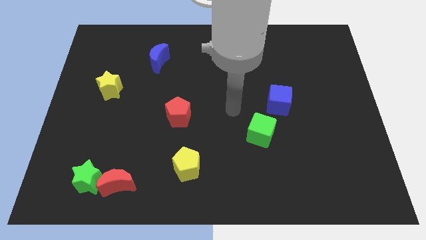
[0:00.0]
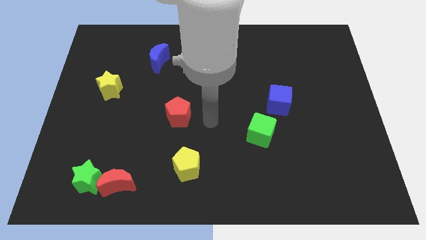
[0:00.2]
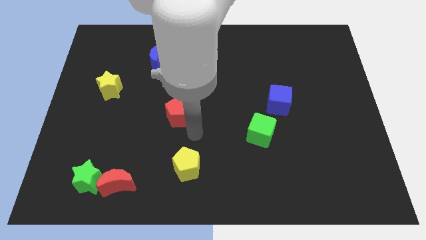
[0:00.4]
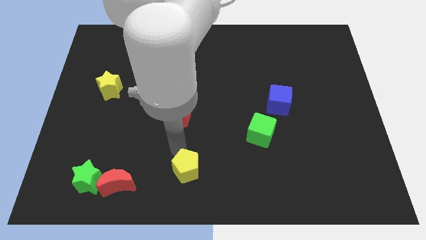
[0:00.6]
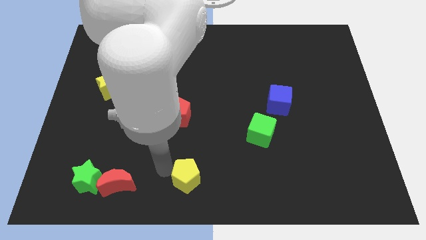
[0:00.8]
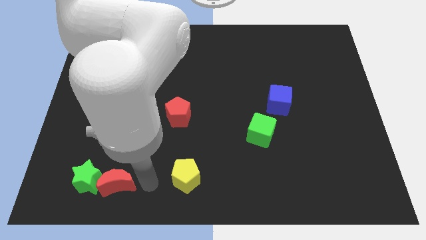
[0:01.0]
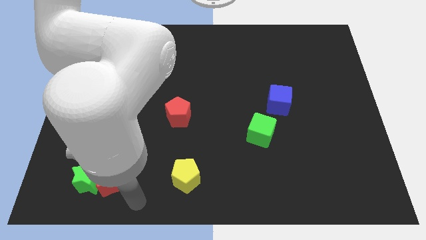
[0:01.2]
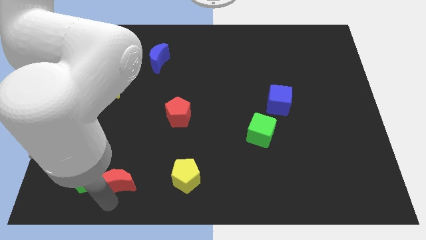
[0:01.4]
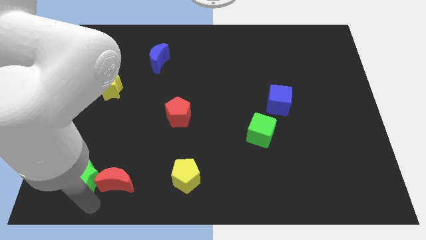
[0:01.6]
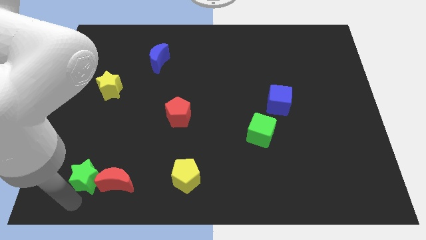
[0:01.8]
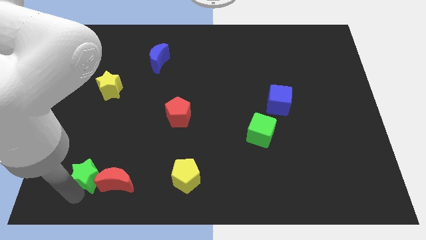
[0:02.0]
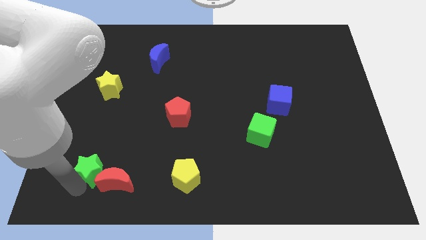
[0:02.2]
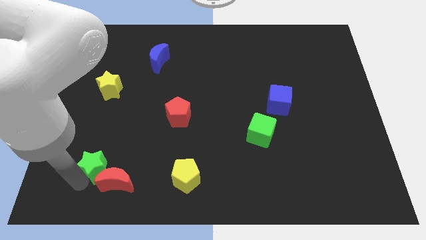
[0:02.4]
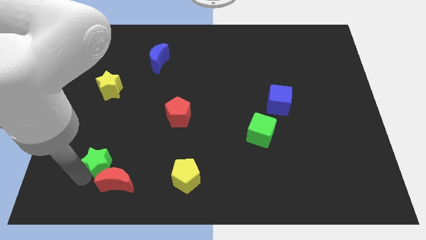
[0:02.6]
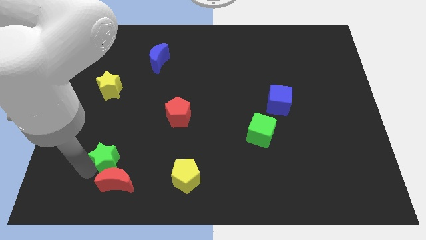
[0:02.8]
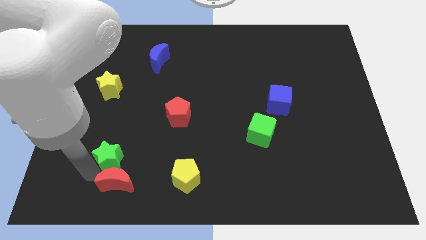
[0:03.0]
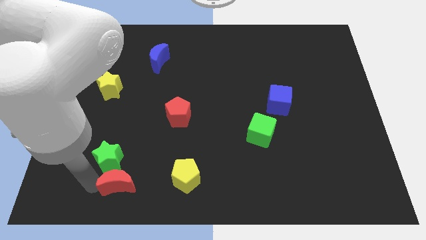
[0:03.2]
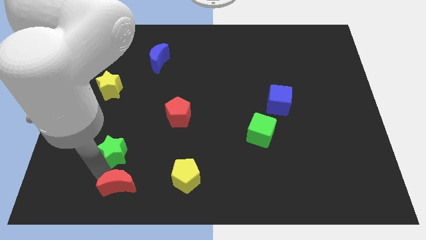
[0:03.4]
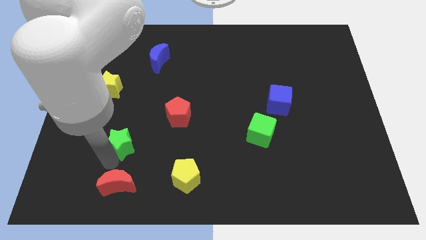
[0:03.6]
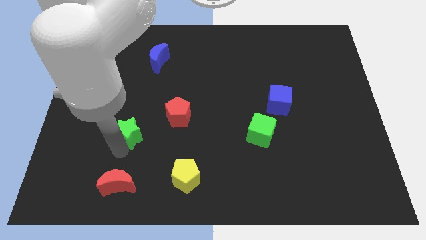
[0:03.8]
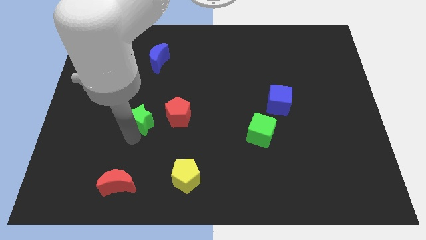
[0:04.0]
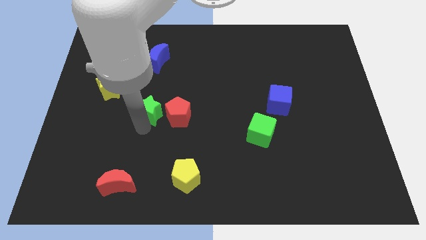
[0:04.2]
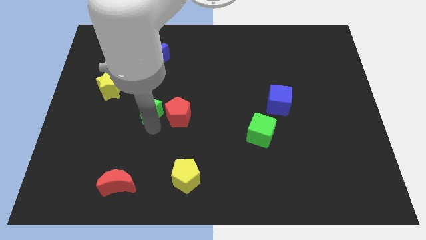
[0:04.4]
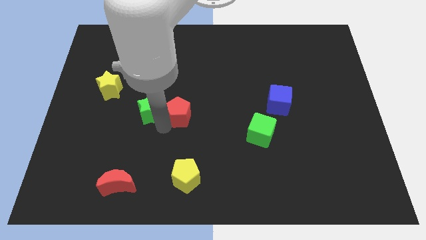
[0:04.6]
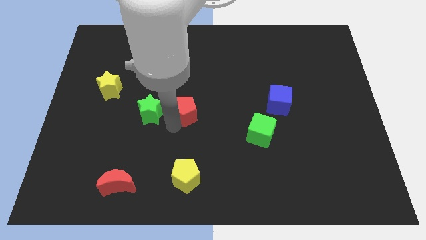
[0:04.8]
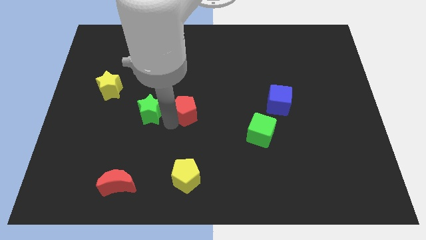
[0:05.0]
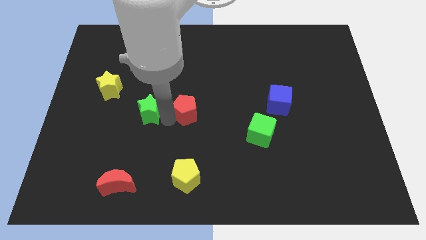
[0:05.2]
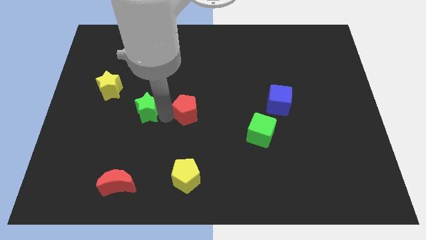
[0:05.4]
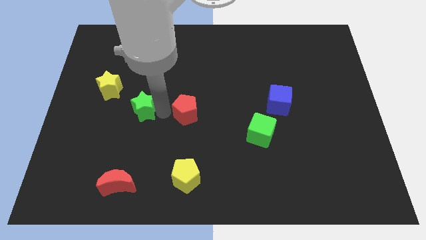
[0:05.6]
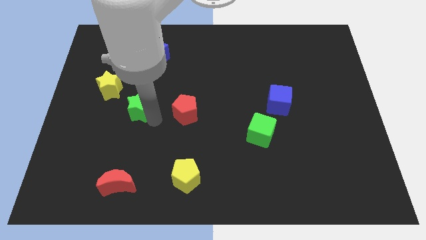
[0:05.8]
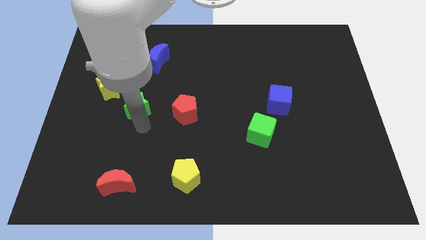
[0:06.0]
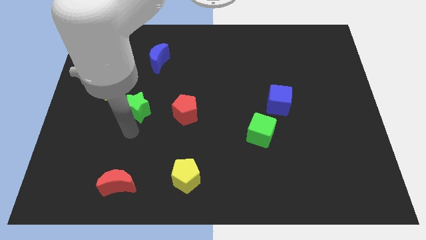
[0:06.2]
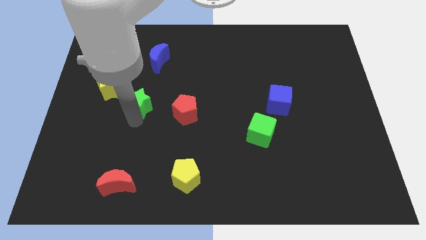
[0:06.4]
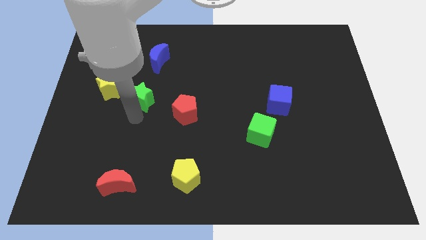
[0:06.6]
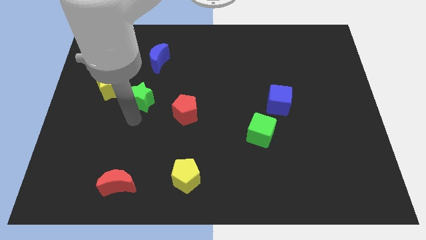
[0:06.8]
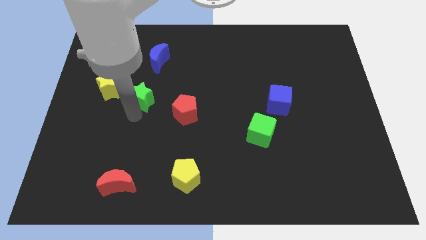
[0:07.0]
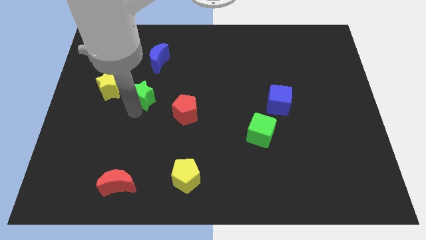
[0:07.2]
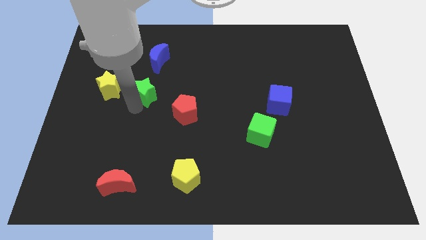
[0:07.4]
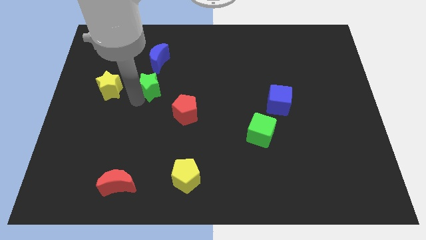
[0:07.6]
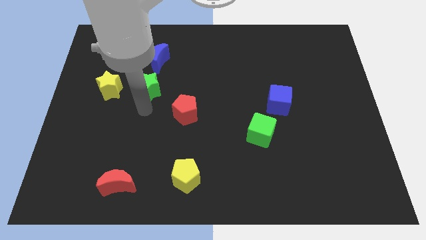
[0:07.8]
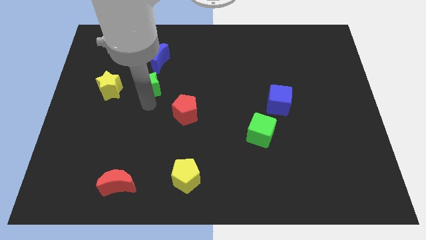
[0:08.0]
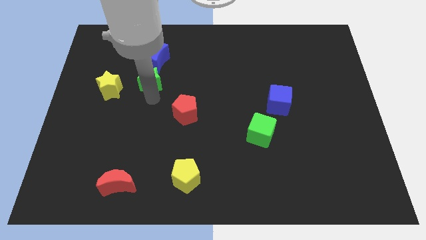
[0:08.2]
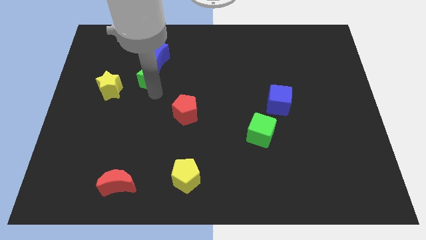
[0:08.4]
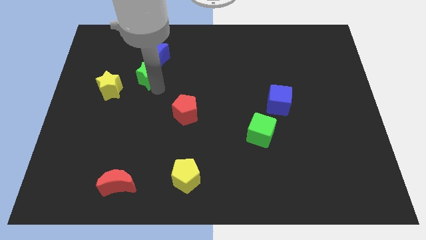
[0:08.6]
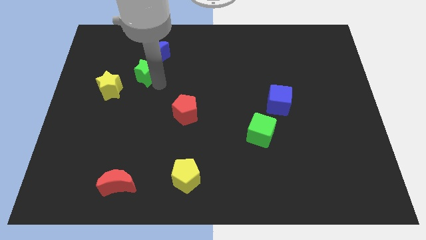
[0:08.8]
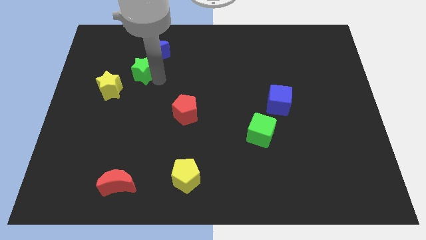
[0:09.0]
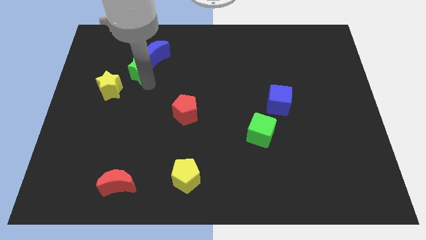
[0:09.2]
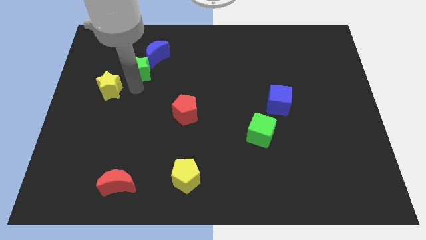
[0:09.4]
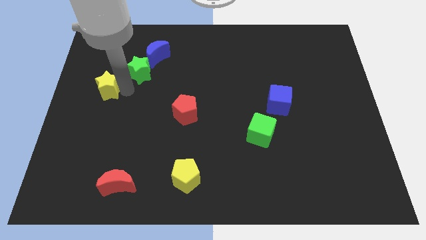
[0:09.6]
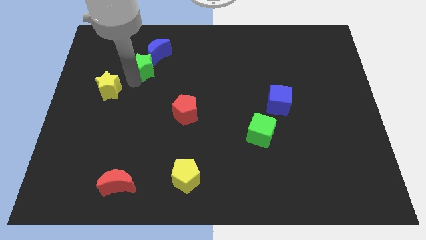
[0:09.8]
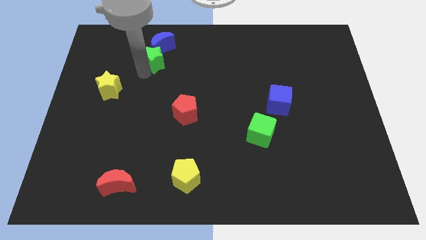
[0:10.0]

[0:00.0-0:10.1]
slide the green star to the blue moon

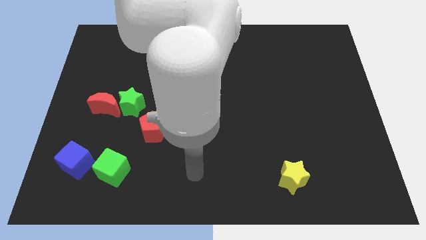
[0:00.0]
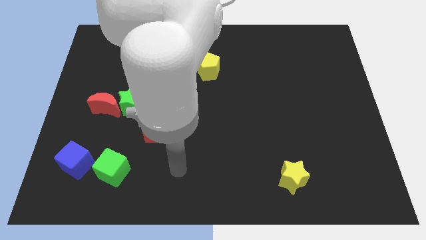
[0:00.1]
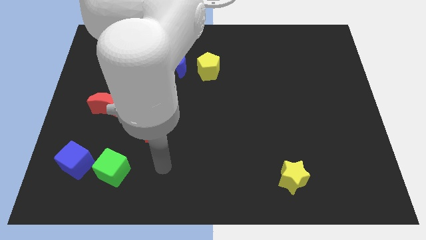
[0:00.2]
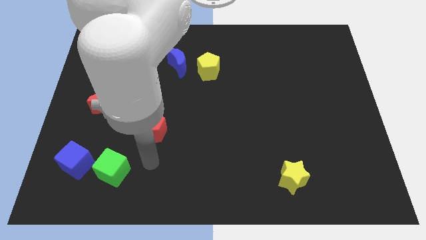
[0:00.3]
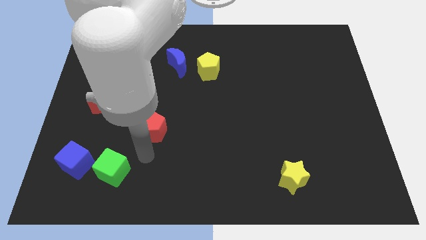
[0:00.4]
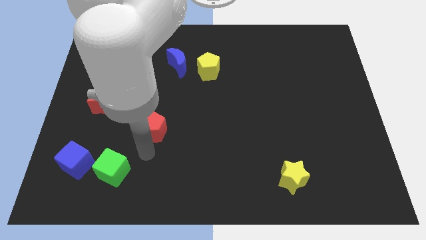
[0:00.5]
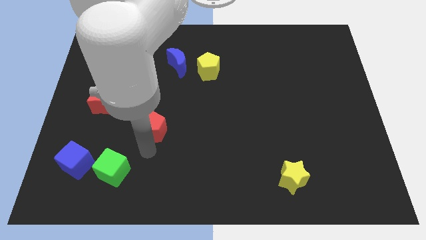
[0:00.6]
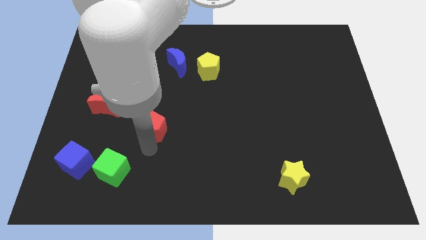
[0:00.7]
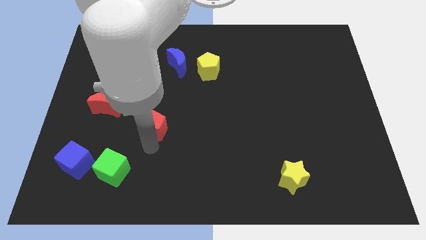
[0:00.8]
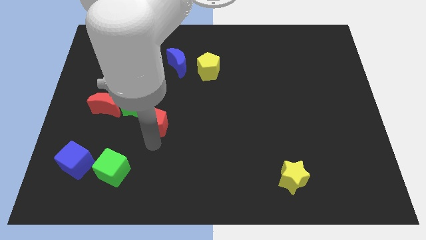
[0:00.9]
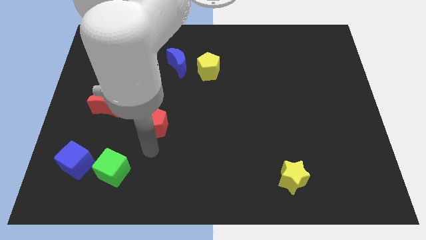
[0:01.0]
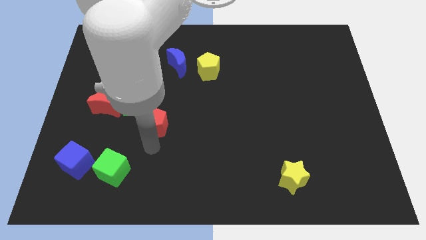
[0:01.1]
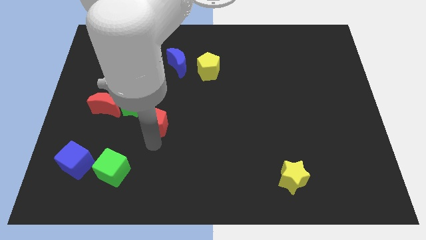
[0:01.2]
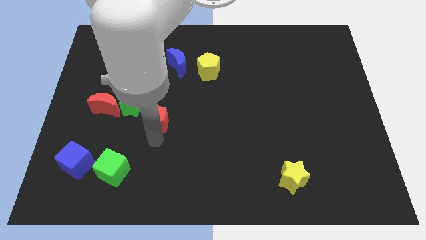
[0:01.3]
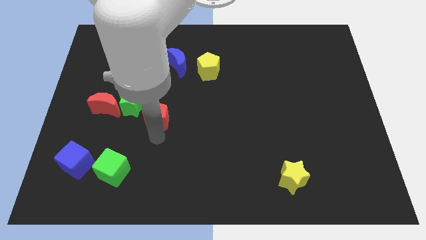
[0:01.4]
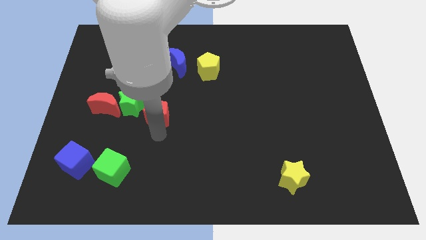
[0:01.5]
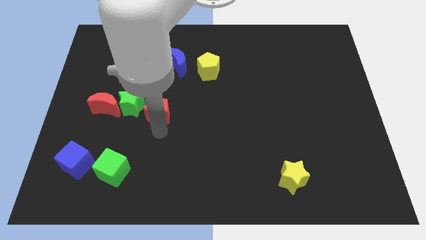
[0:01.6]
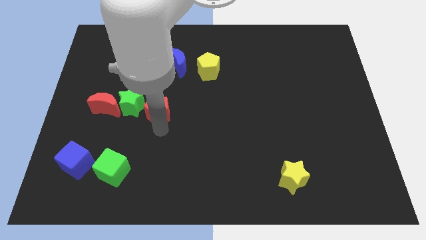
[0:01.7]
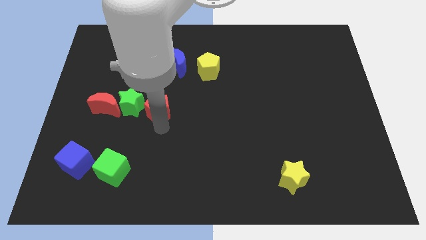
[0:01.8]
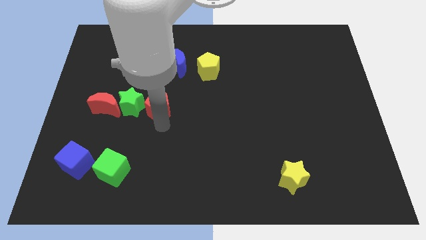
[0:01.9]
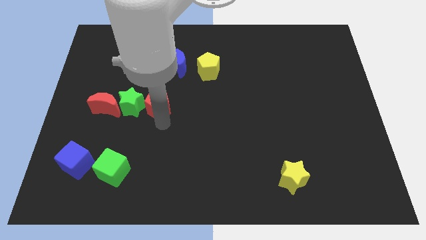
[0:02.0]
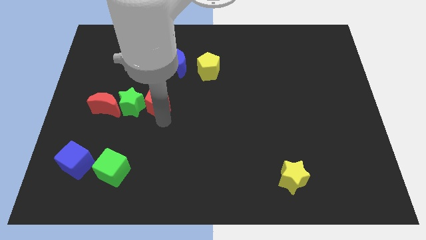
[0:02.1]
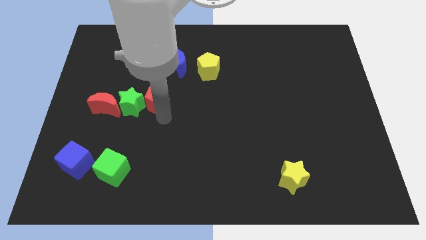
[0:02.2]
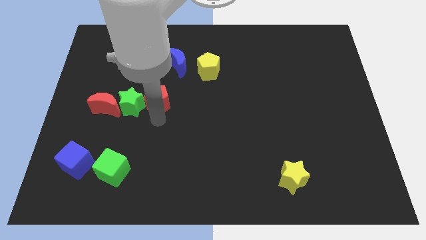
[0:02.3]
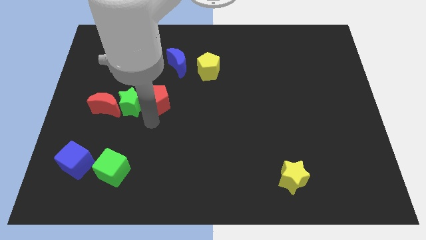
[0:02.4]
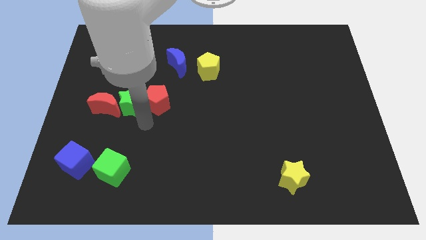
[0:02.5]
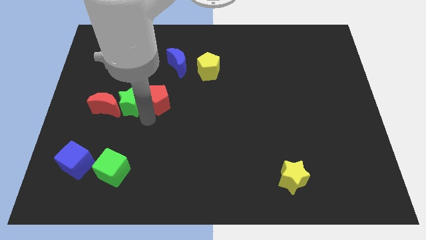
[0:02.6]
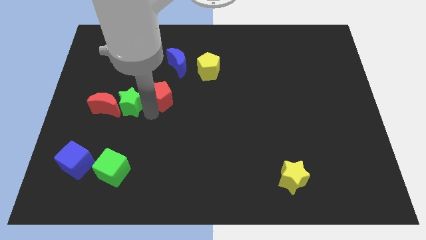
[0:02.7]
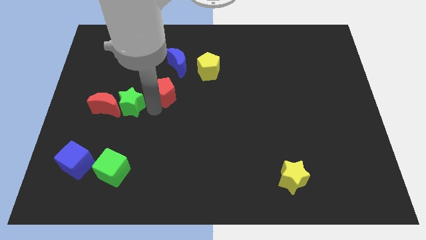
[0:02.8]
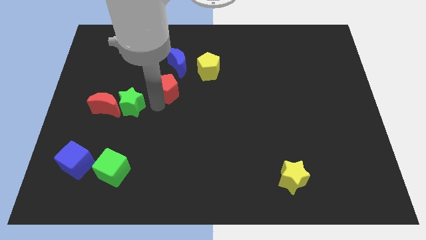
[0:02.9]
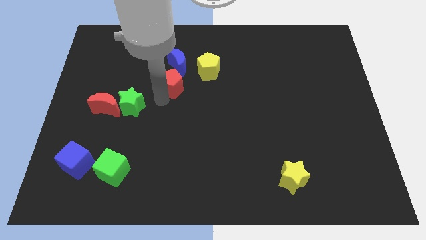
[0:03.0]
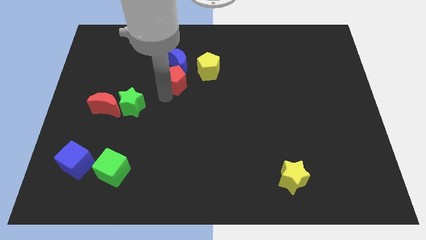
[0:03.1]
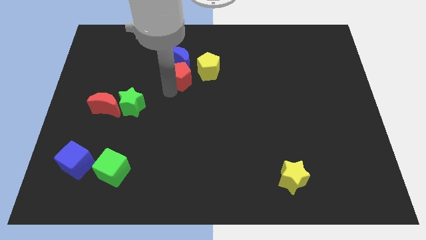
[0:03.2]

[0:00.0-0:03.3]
put the red pentagon towards the blue moon
